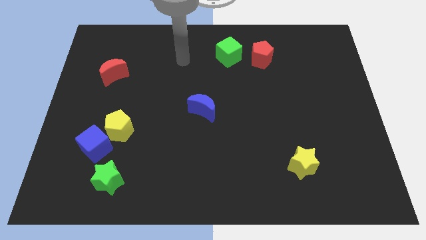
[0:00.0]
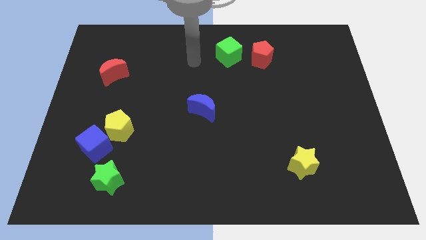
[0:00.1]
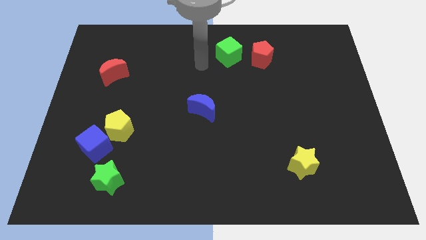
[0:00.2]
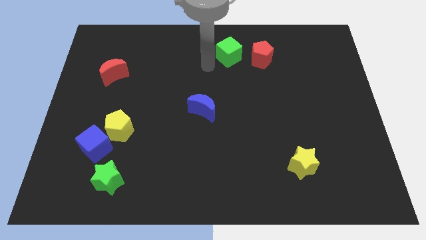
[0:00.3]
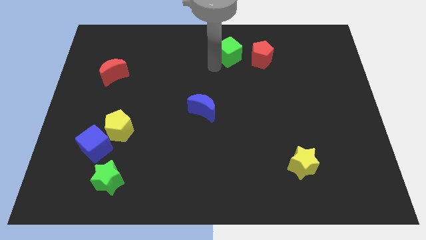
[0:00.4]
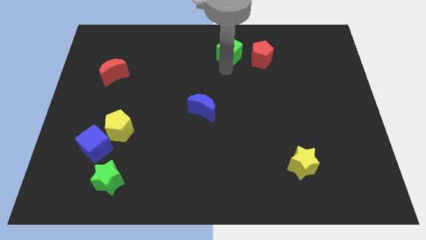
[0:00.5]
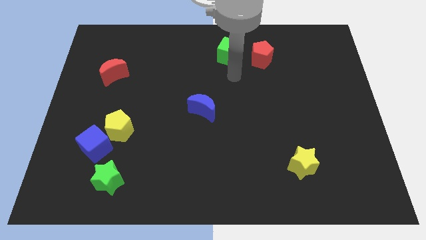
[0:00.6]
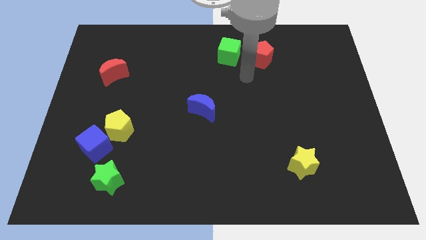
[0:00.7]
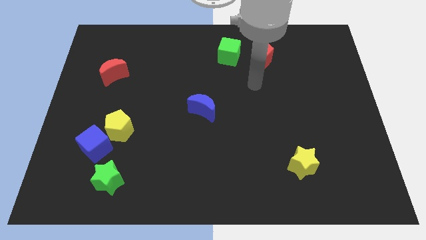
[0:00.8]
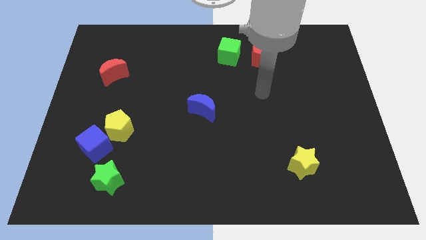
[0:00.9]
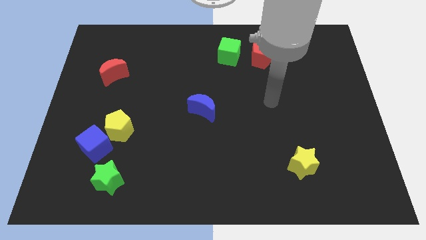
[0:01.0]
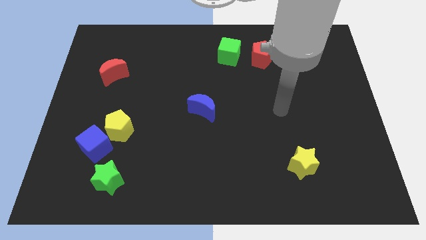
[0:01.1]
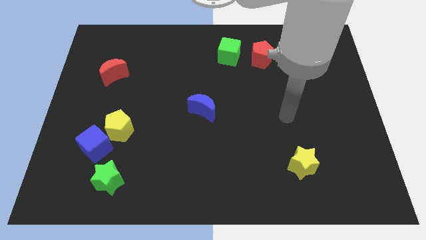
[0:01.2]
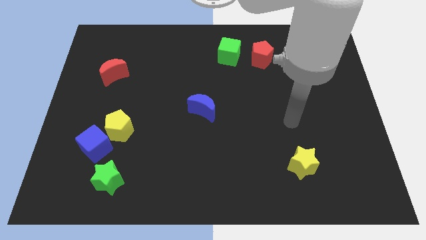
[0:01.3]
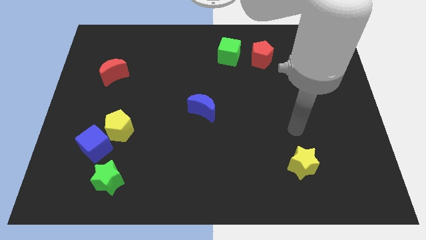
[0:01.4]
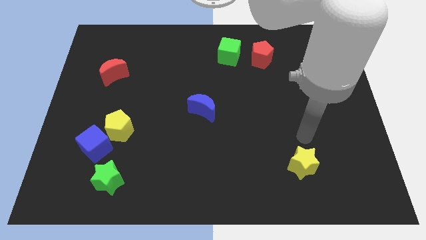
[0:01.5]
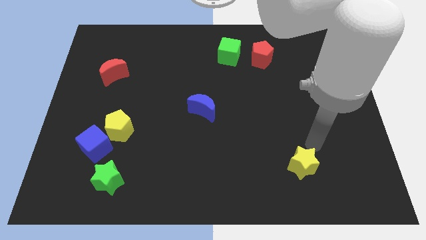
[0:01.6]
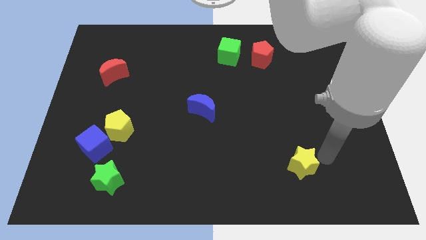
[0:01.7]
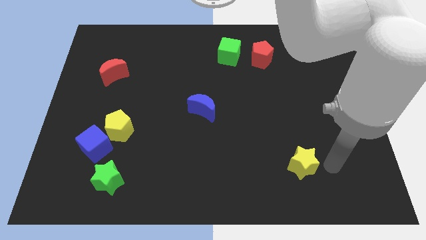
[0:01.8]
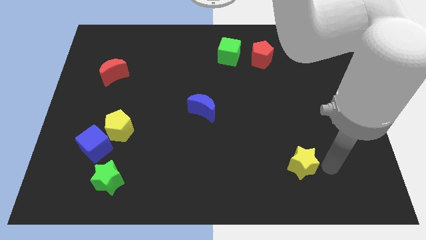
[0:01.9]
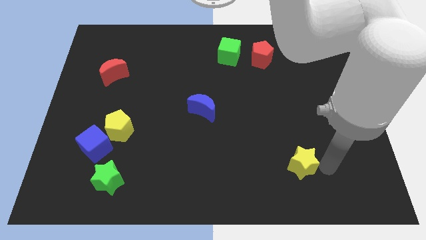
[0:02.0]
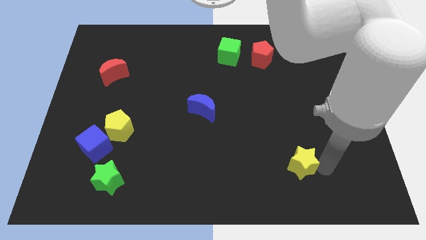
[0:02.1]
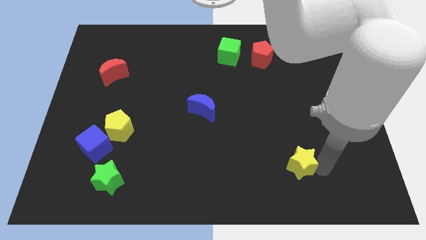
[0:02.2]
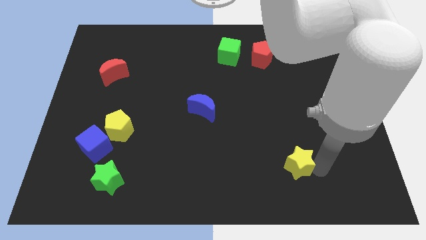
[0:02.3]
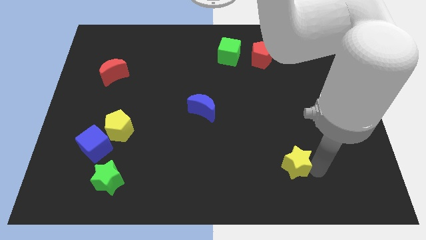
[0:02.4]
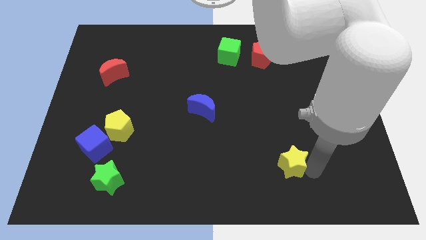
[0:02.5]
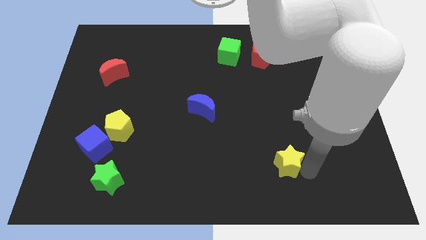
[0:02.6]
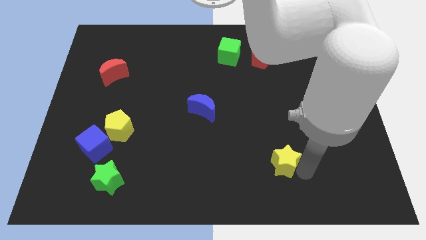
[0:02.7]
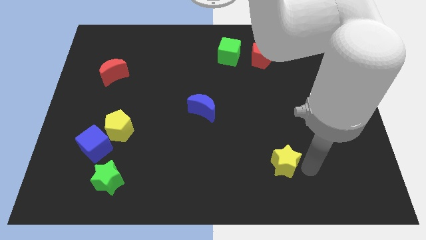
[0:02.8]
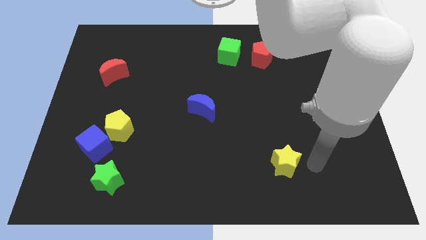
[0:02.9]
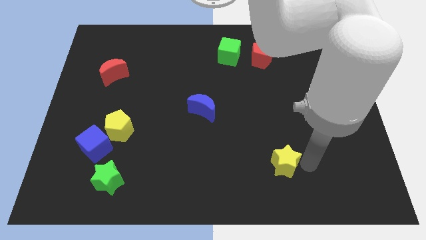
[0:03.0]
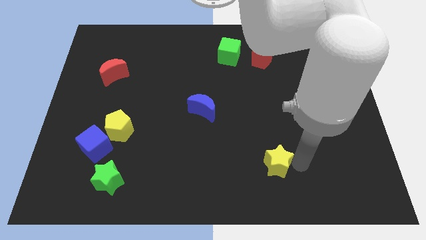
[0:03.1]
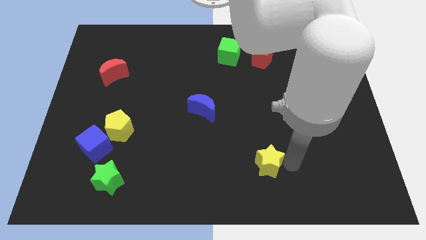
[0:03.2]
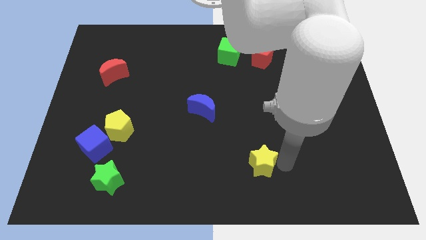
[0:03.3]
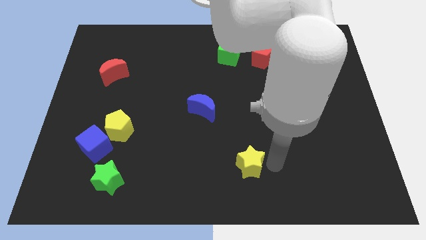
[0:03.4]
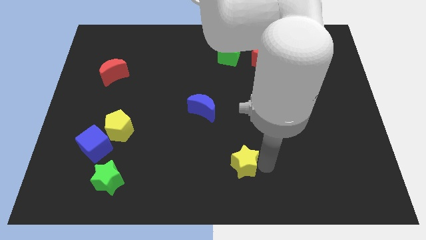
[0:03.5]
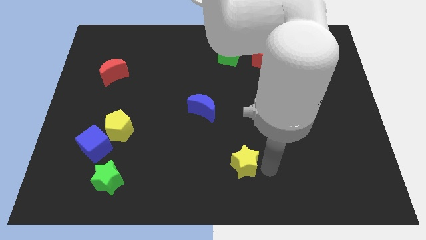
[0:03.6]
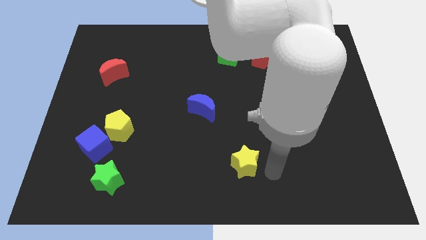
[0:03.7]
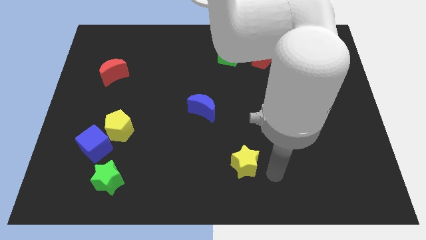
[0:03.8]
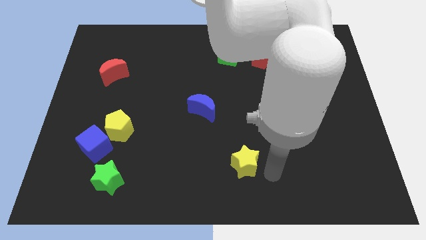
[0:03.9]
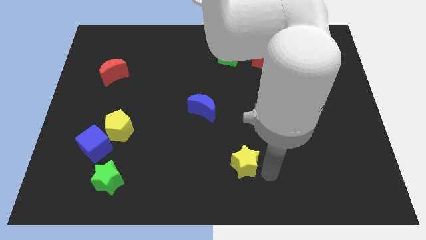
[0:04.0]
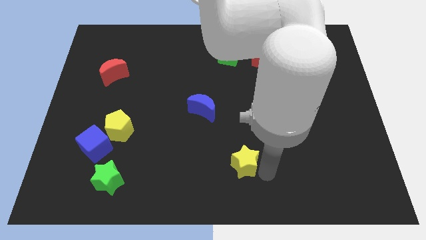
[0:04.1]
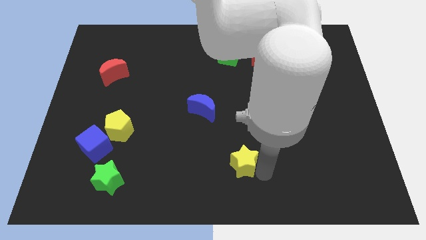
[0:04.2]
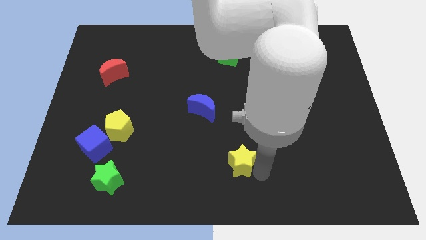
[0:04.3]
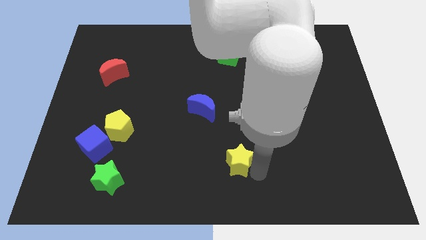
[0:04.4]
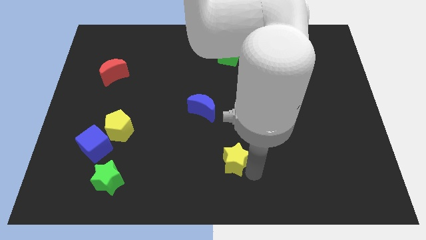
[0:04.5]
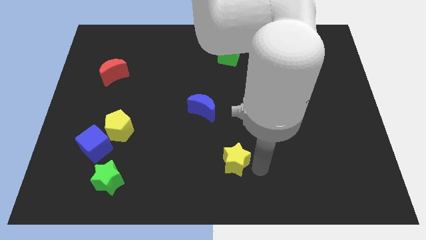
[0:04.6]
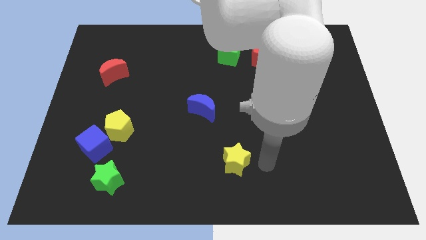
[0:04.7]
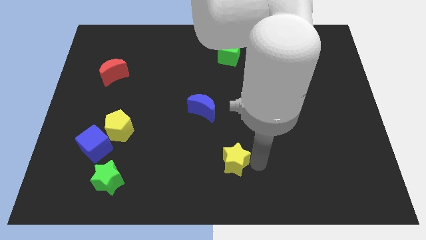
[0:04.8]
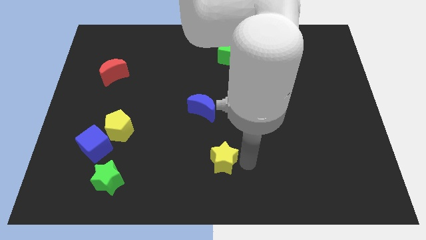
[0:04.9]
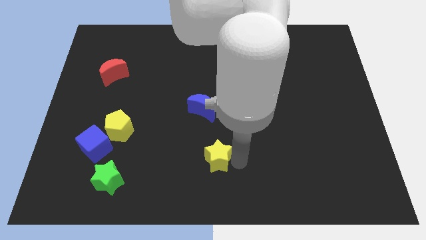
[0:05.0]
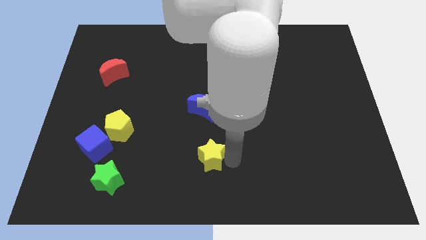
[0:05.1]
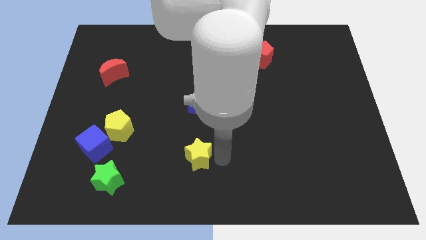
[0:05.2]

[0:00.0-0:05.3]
move the yellow star left

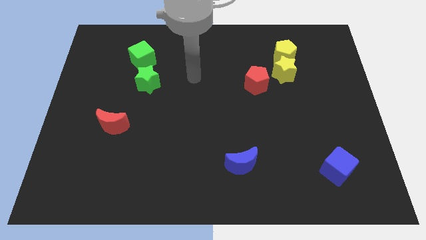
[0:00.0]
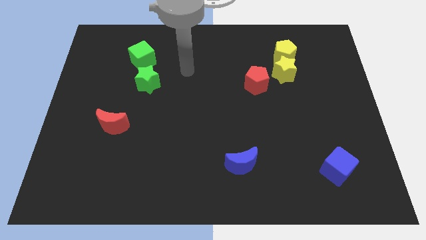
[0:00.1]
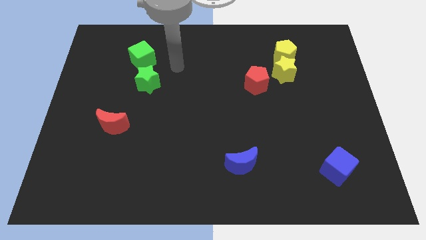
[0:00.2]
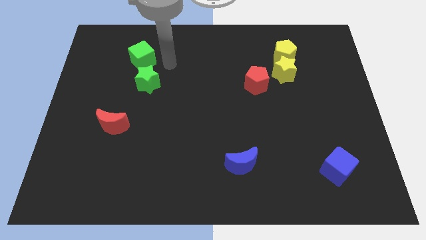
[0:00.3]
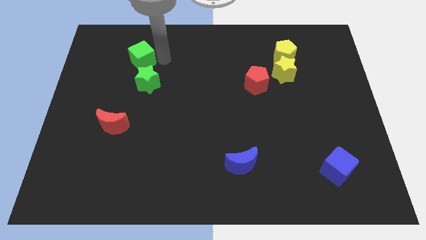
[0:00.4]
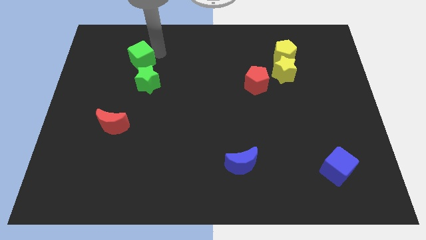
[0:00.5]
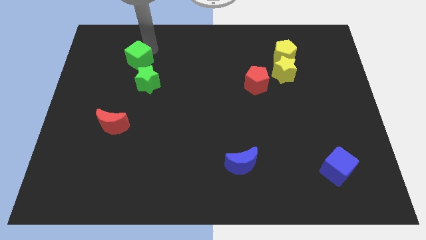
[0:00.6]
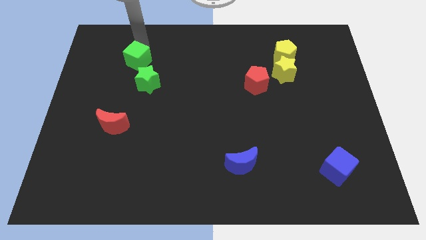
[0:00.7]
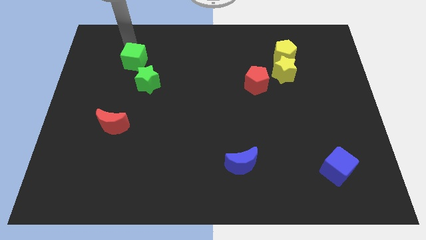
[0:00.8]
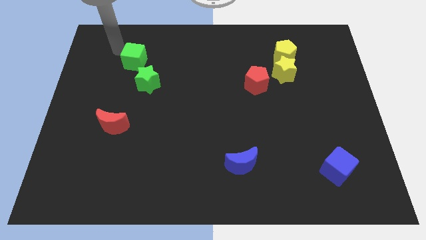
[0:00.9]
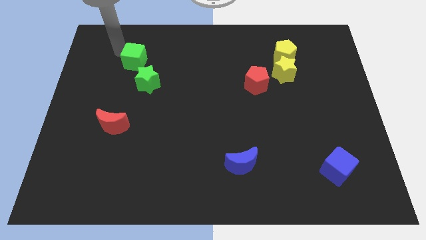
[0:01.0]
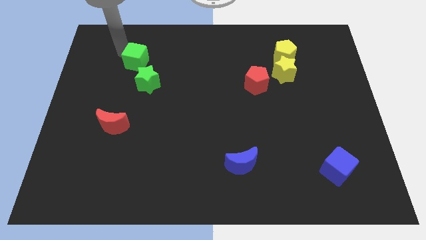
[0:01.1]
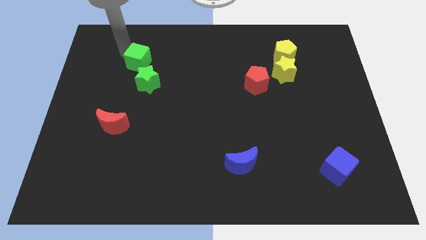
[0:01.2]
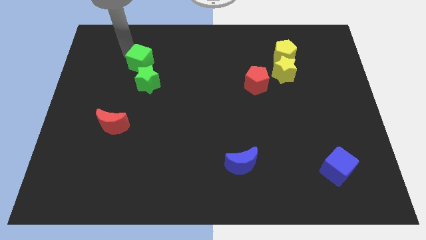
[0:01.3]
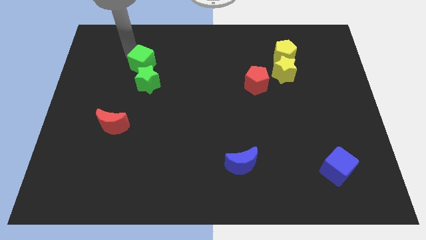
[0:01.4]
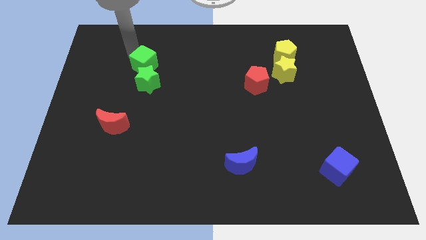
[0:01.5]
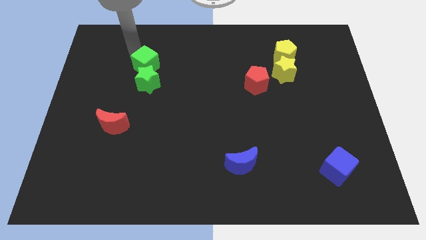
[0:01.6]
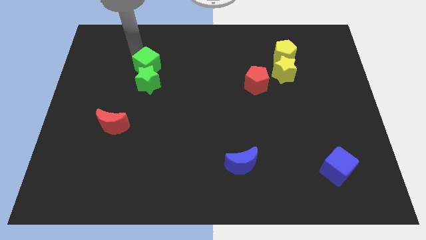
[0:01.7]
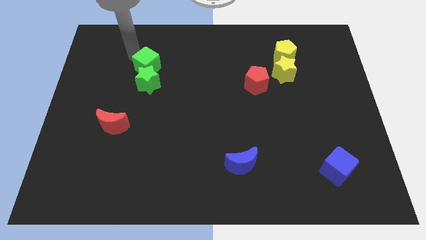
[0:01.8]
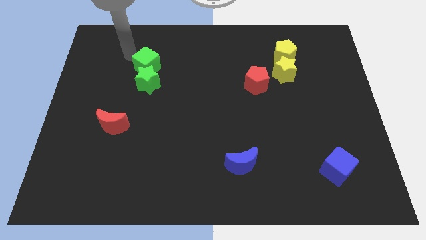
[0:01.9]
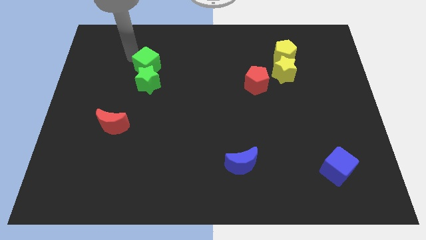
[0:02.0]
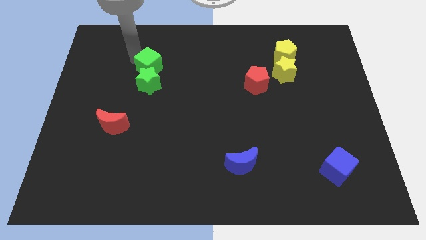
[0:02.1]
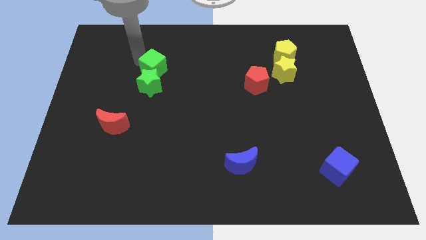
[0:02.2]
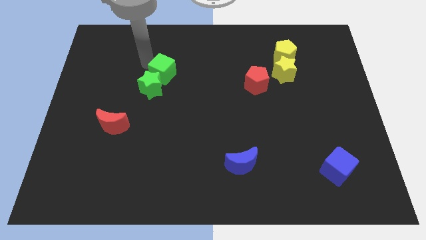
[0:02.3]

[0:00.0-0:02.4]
move the green cube slightly downwards and to the right

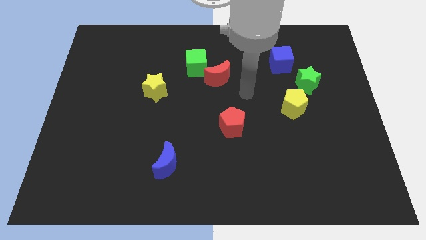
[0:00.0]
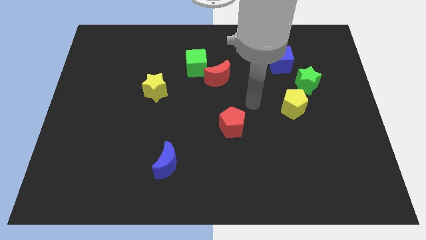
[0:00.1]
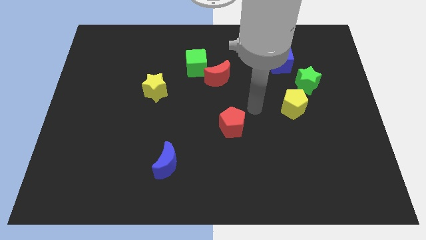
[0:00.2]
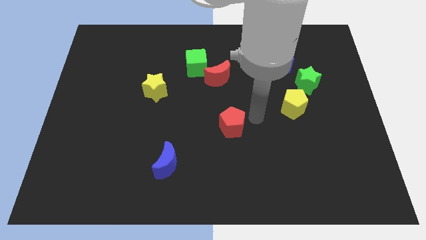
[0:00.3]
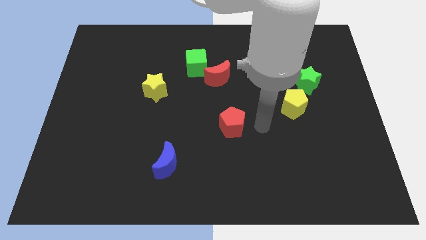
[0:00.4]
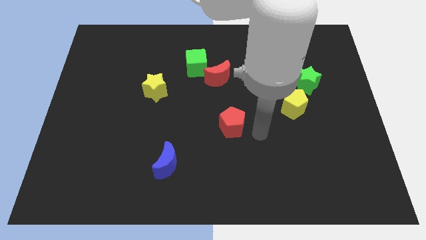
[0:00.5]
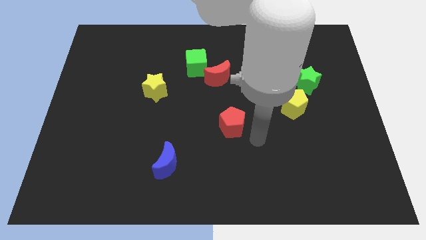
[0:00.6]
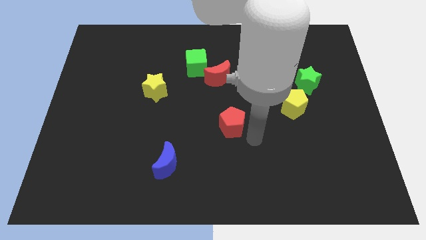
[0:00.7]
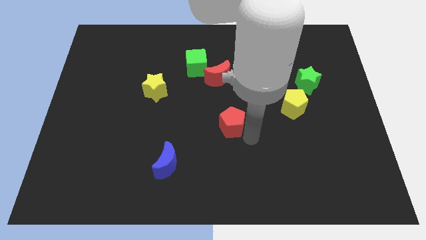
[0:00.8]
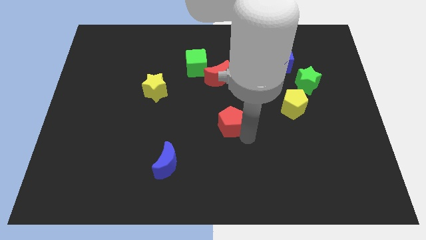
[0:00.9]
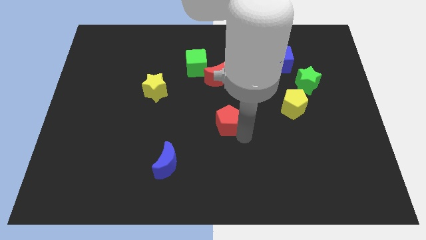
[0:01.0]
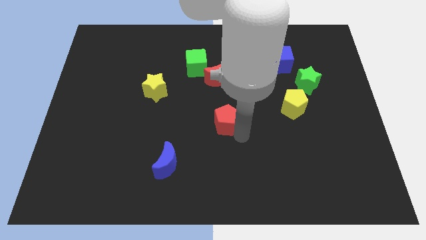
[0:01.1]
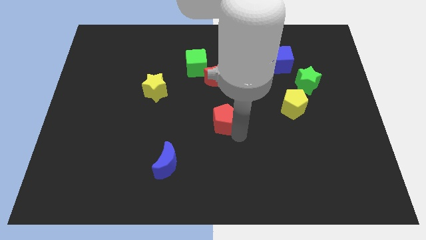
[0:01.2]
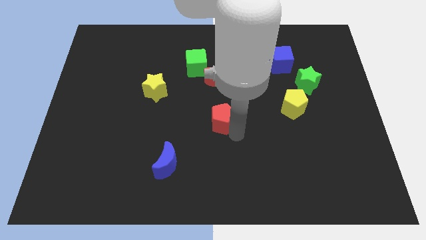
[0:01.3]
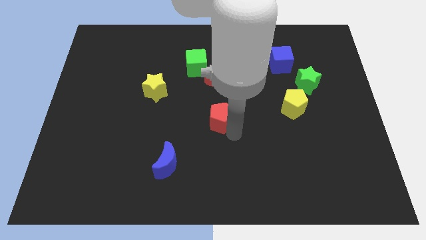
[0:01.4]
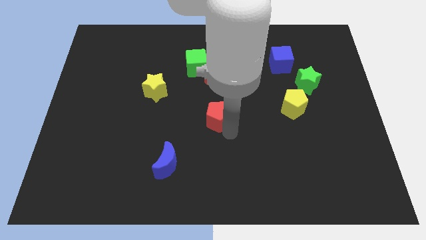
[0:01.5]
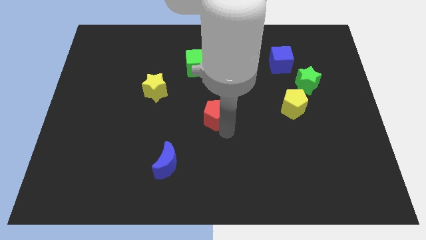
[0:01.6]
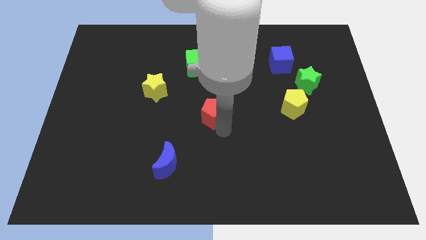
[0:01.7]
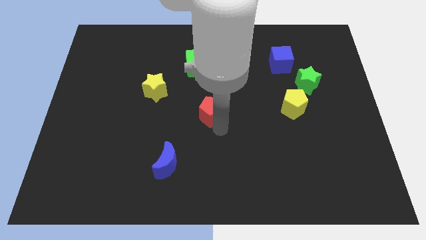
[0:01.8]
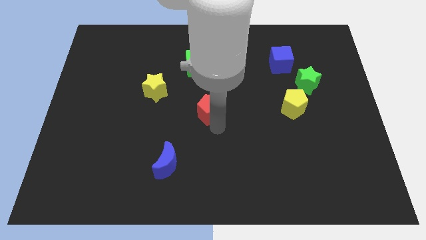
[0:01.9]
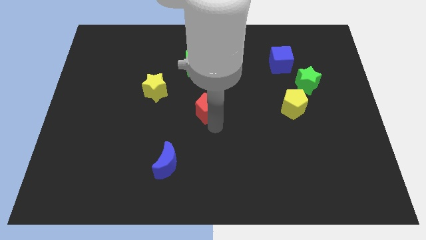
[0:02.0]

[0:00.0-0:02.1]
move the red pentagon upwards and left diagonally slightly
